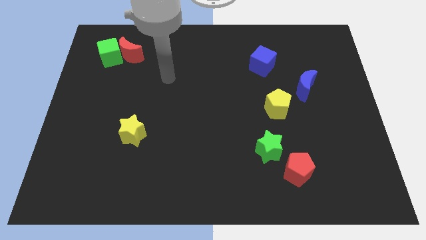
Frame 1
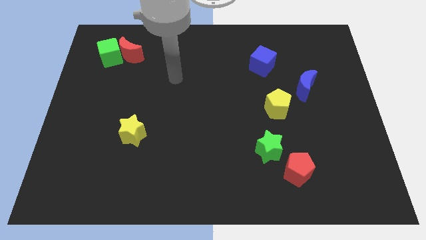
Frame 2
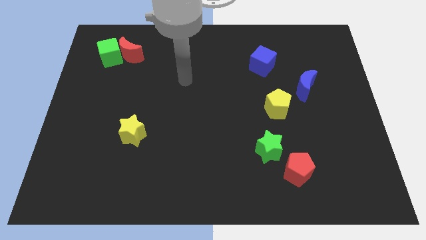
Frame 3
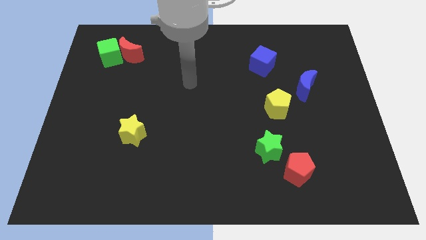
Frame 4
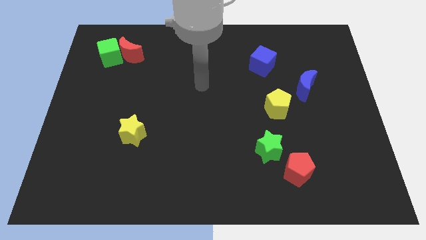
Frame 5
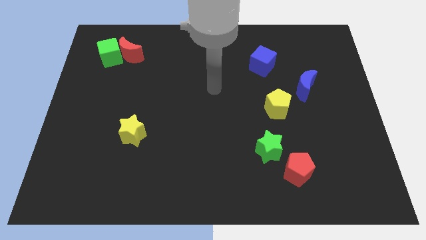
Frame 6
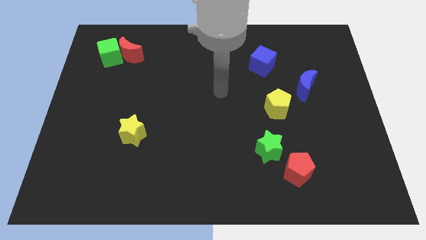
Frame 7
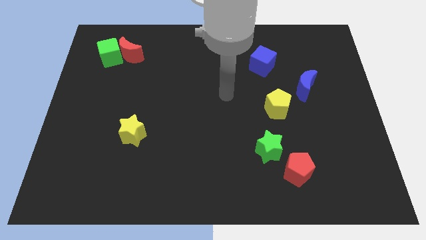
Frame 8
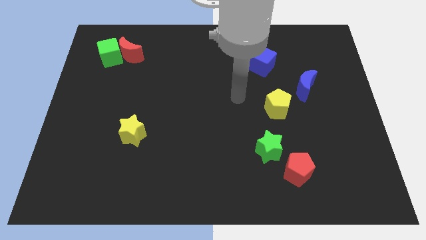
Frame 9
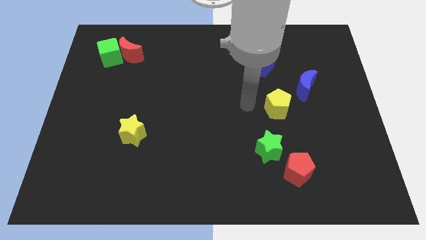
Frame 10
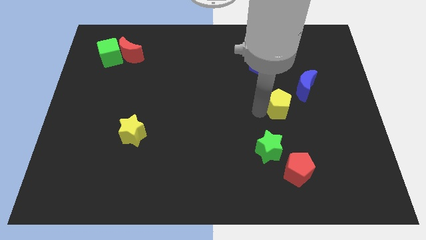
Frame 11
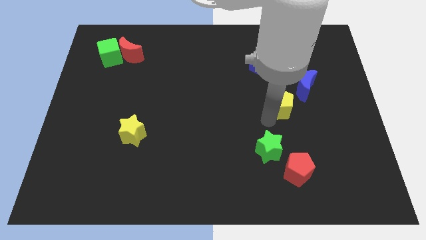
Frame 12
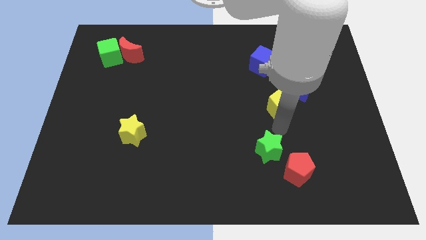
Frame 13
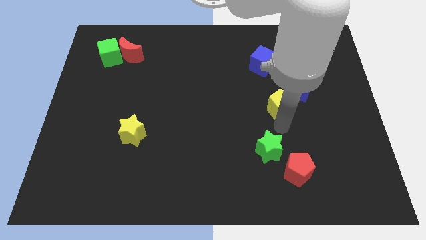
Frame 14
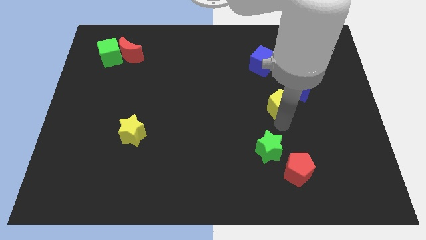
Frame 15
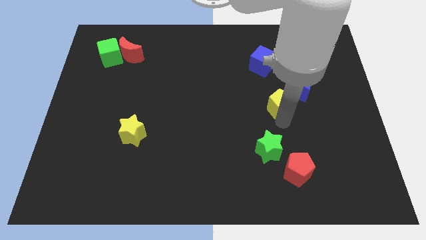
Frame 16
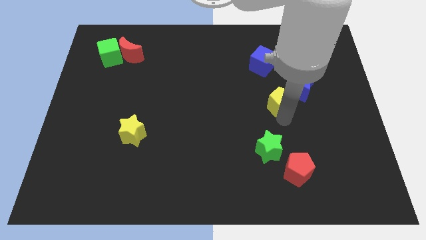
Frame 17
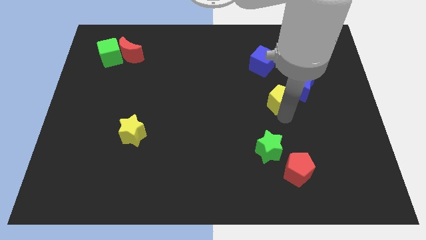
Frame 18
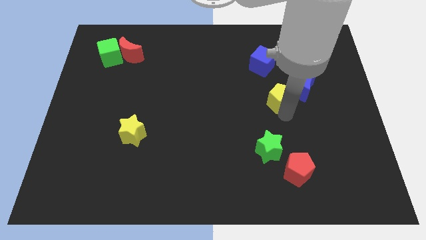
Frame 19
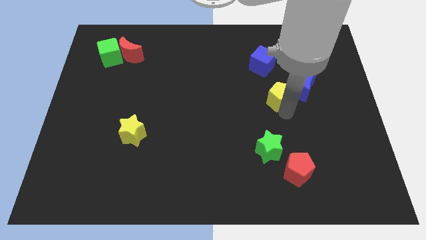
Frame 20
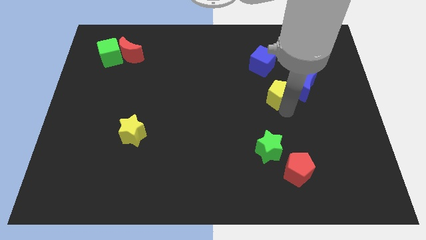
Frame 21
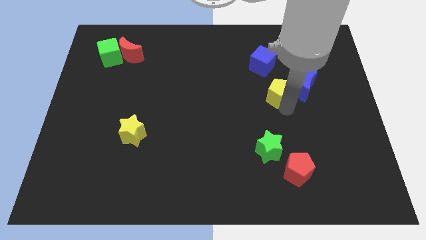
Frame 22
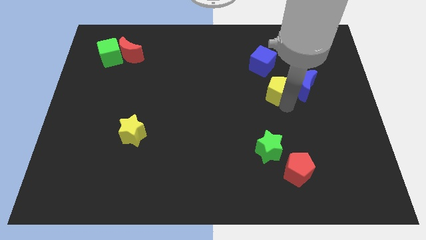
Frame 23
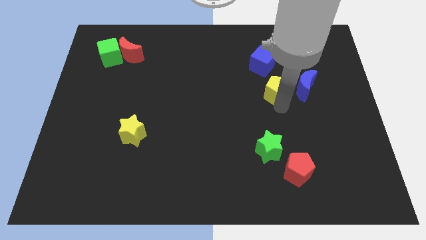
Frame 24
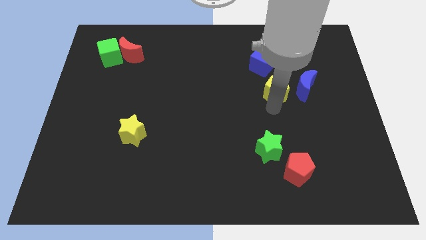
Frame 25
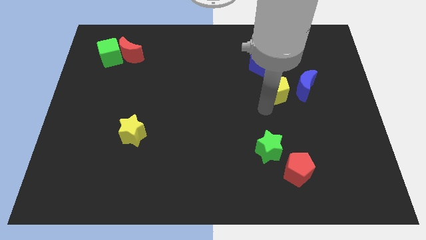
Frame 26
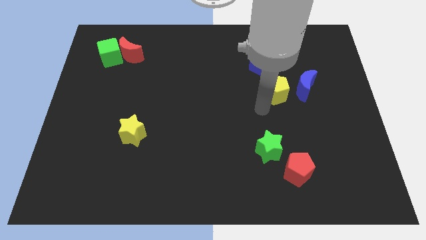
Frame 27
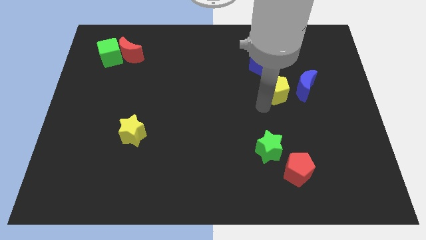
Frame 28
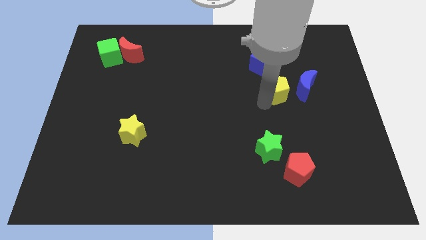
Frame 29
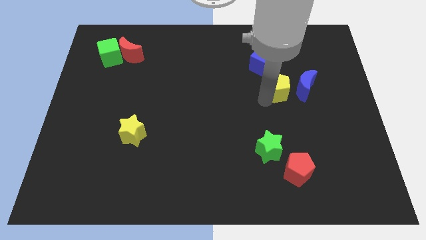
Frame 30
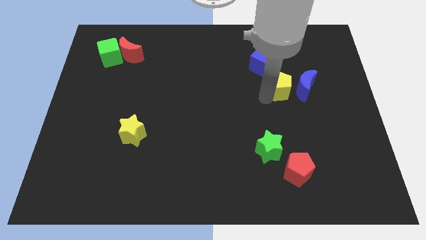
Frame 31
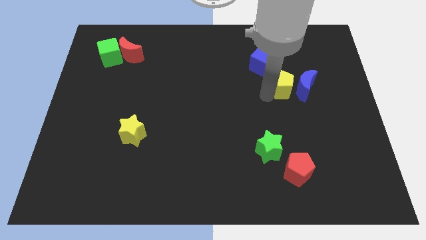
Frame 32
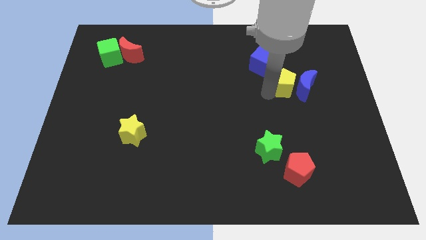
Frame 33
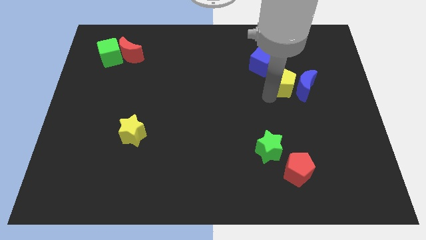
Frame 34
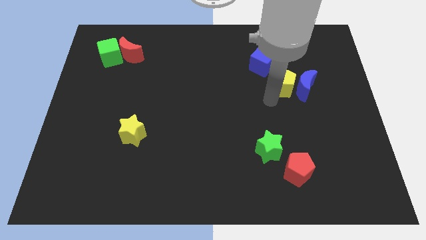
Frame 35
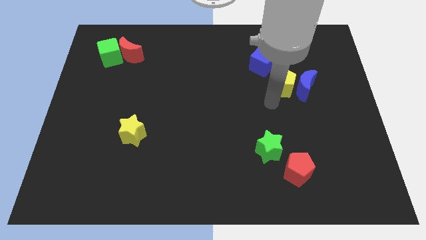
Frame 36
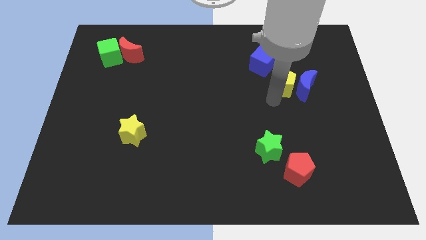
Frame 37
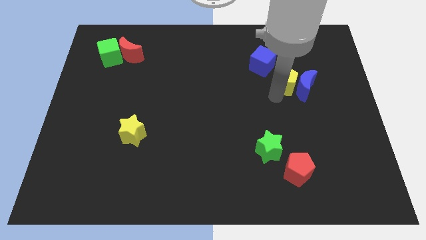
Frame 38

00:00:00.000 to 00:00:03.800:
push the yellow pentagon a bit upwards and to the right

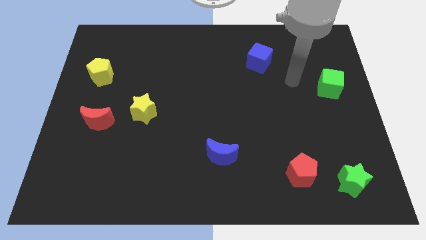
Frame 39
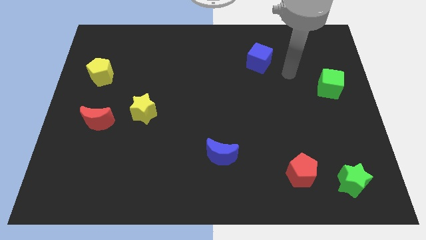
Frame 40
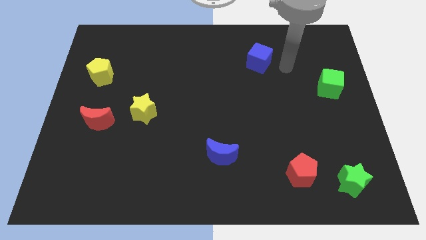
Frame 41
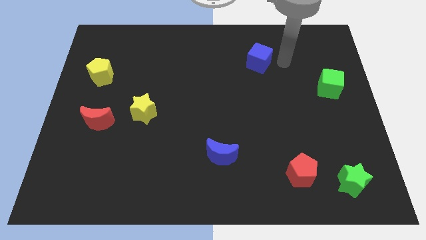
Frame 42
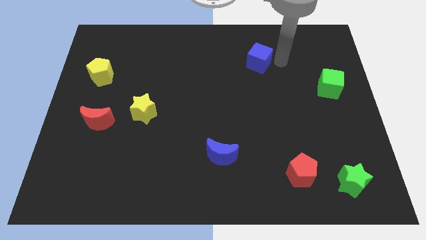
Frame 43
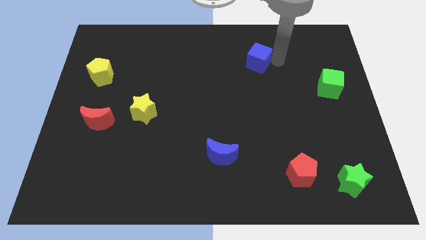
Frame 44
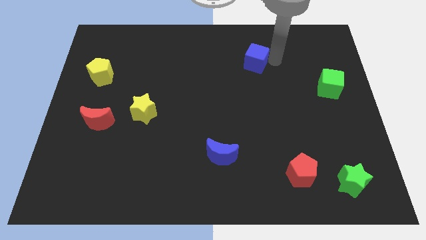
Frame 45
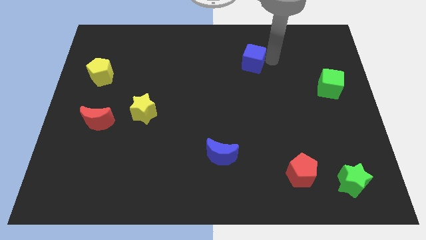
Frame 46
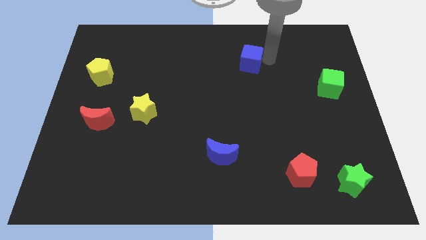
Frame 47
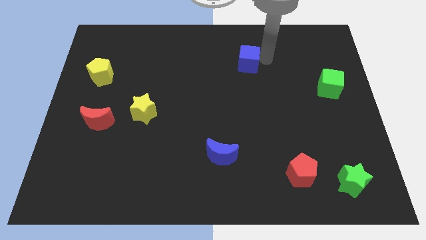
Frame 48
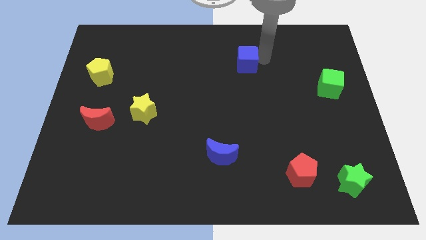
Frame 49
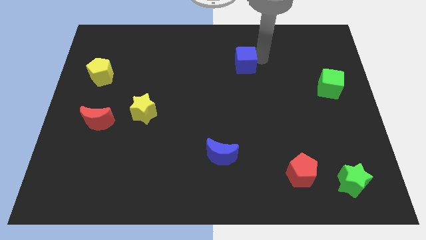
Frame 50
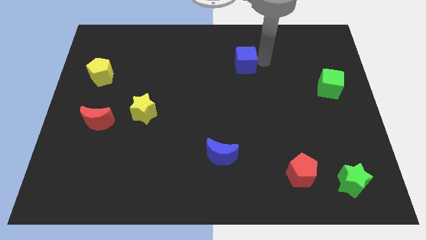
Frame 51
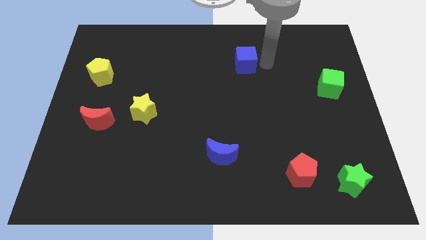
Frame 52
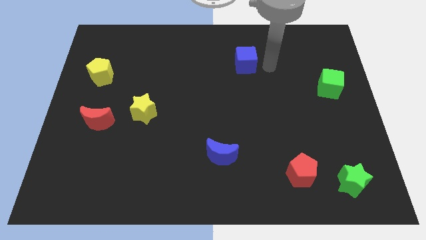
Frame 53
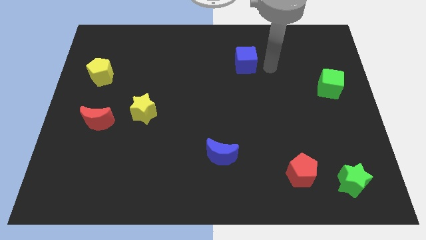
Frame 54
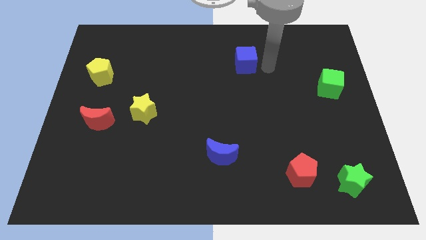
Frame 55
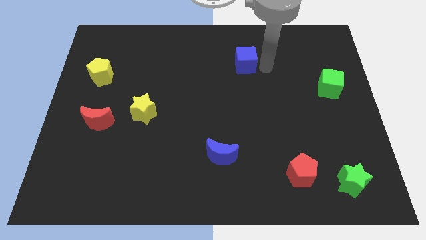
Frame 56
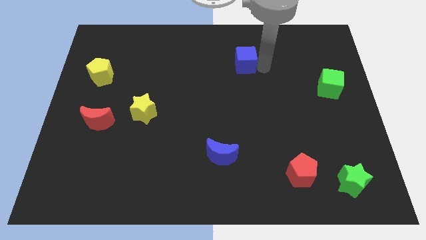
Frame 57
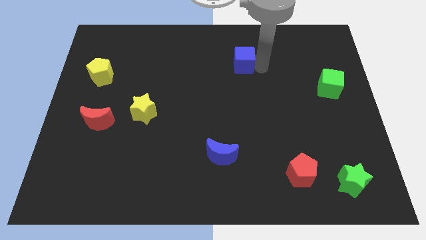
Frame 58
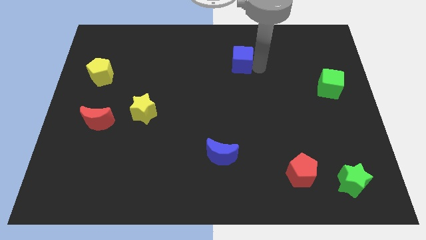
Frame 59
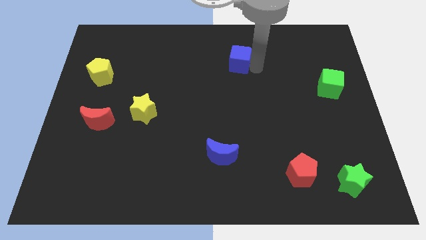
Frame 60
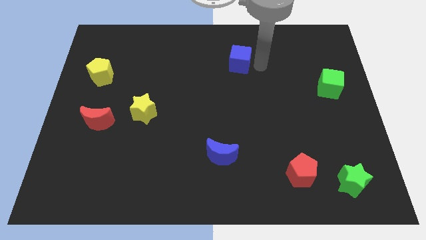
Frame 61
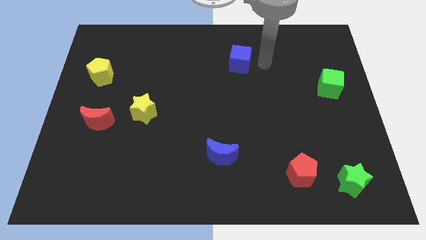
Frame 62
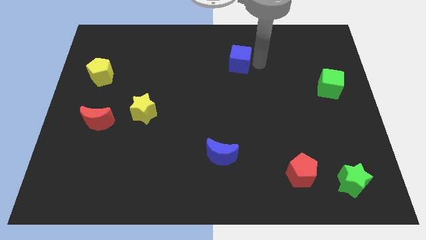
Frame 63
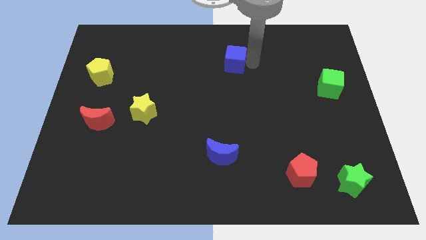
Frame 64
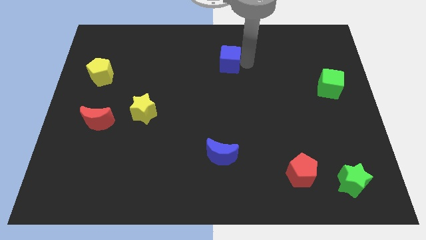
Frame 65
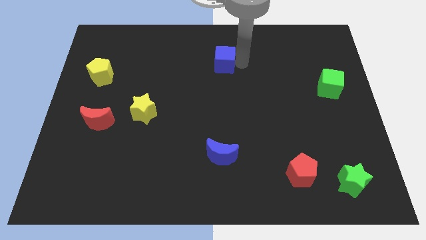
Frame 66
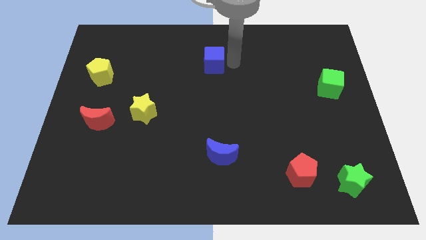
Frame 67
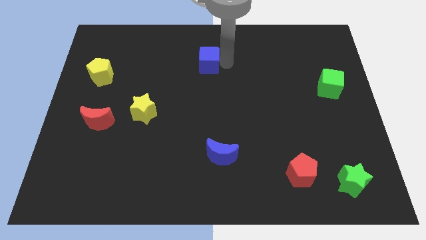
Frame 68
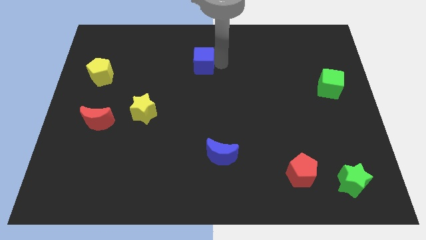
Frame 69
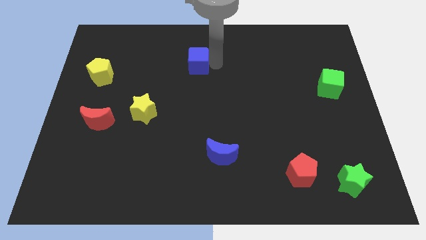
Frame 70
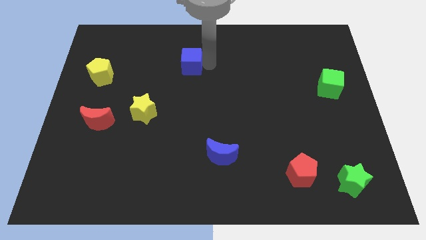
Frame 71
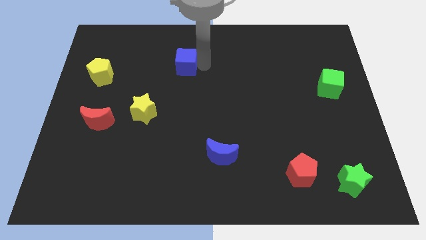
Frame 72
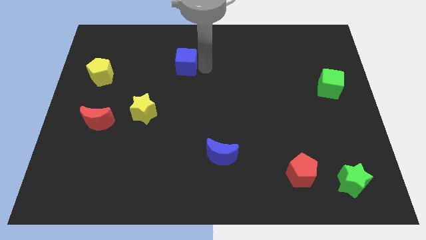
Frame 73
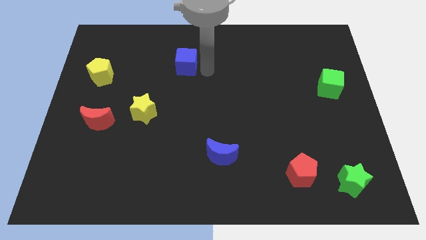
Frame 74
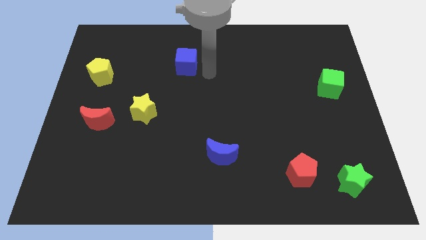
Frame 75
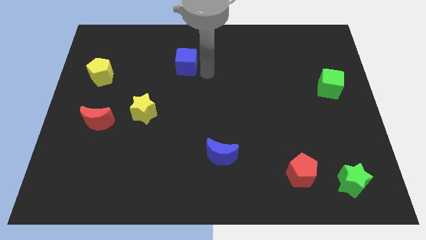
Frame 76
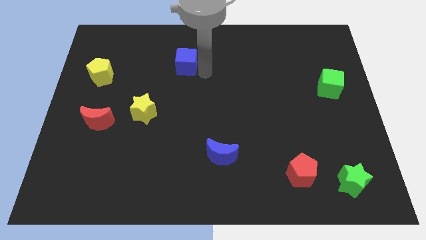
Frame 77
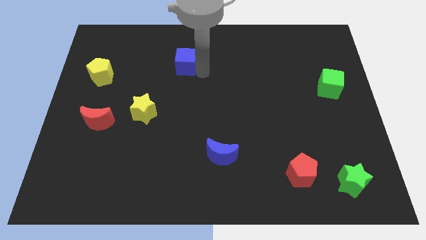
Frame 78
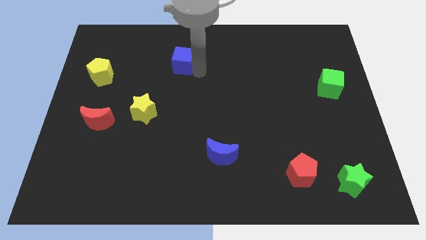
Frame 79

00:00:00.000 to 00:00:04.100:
slide the blue cube to the left
